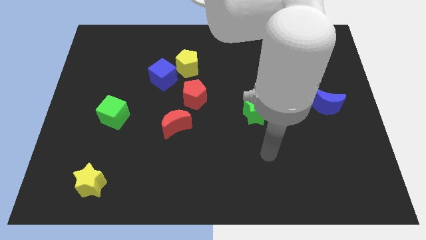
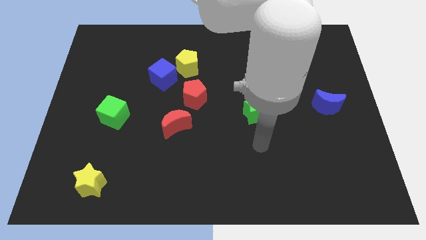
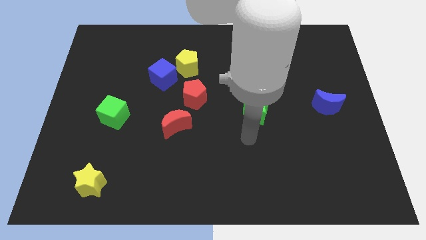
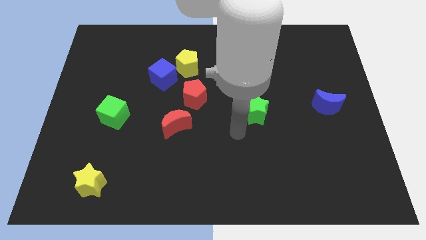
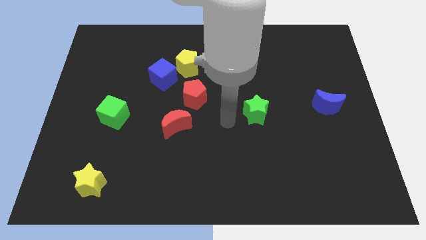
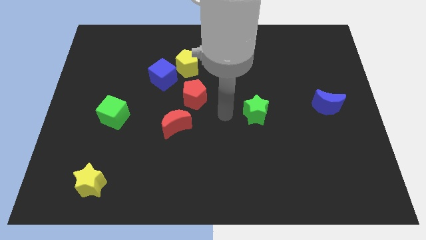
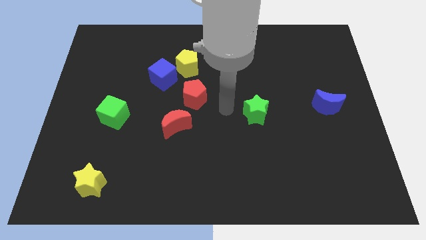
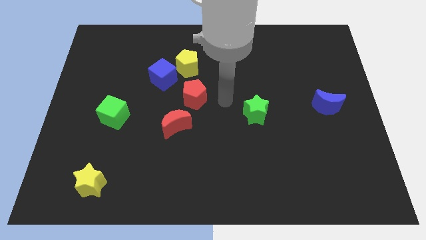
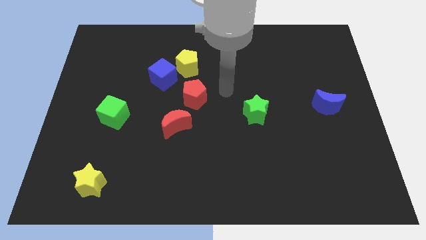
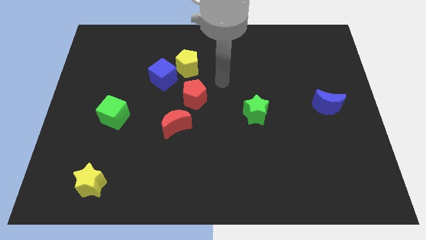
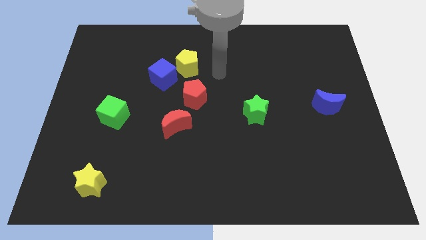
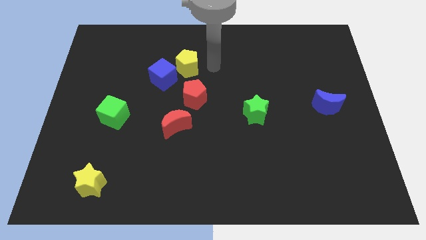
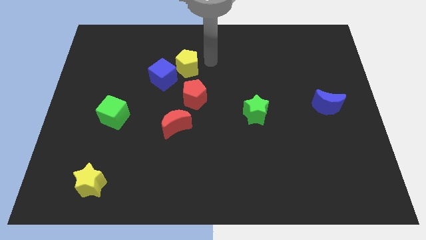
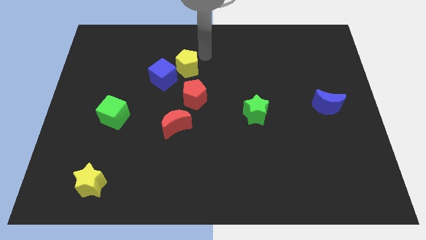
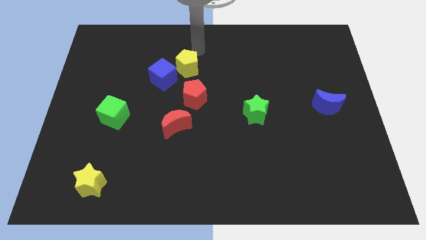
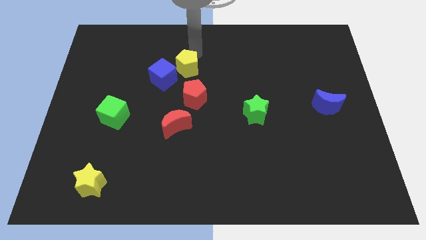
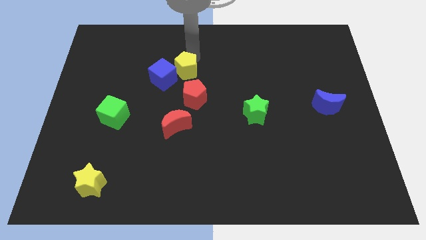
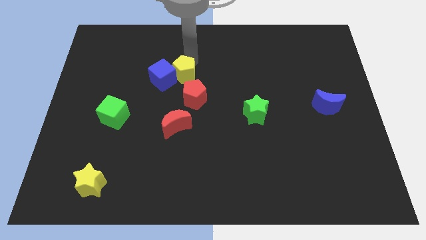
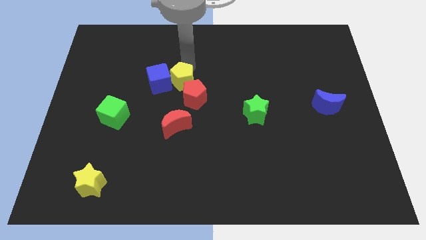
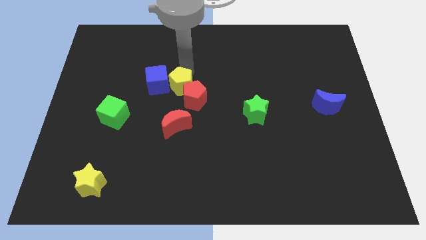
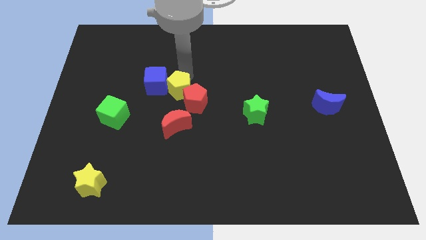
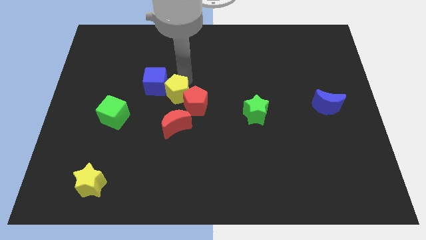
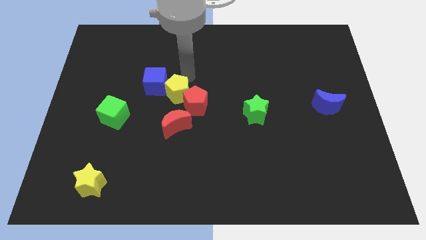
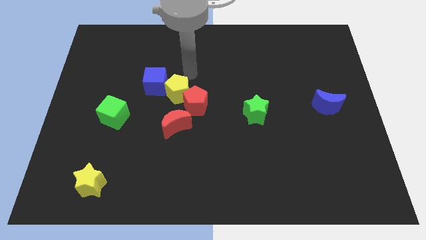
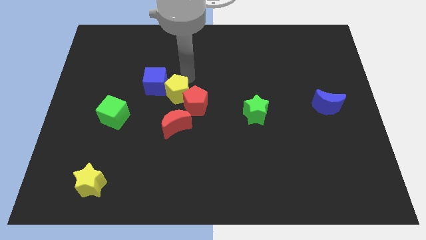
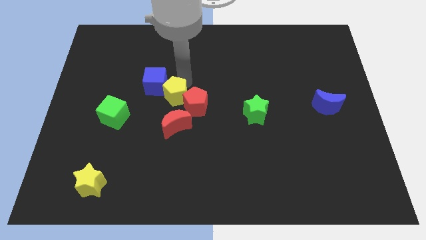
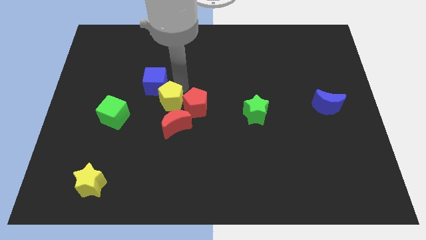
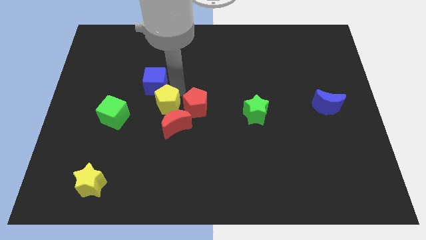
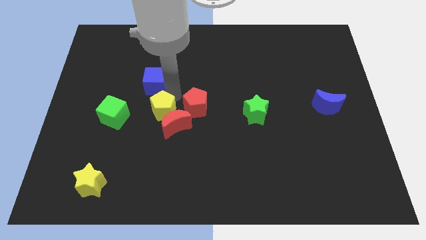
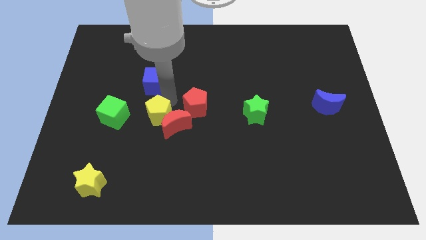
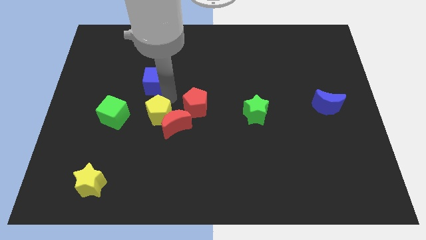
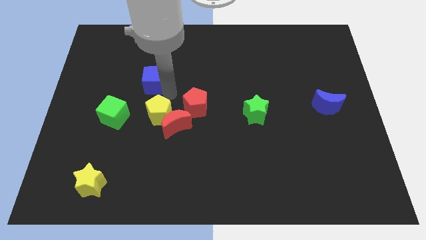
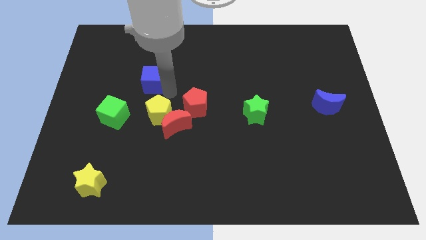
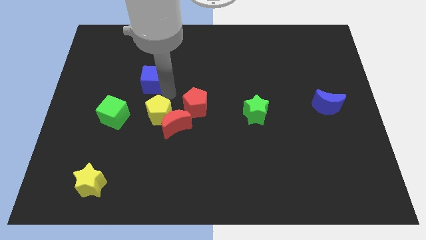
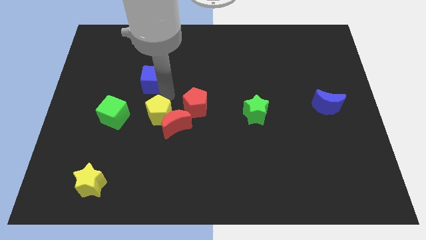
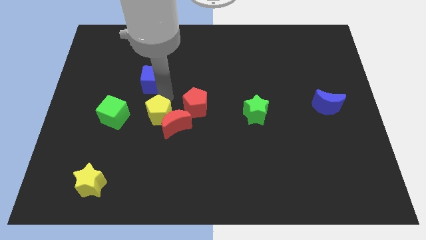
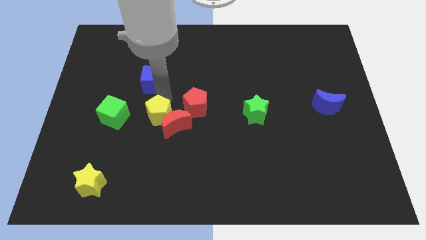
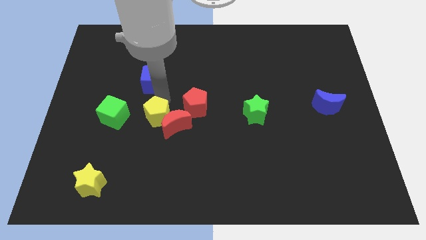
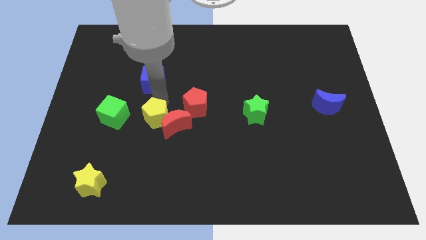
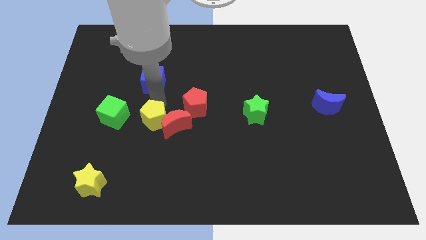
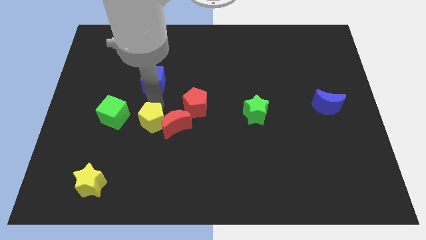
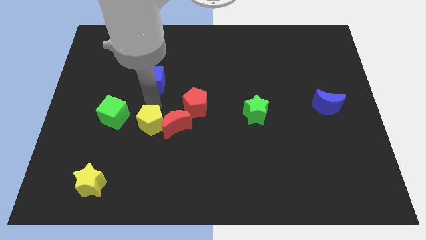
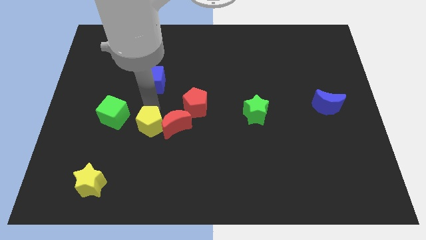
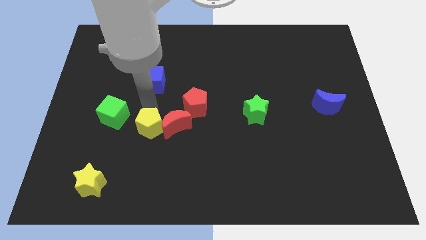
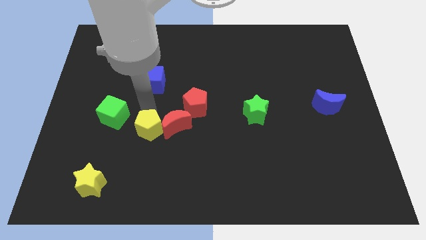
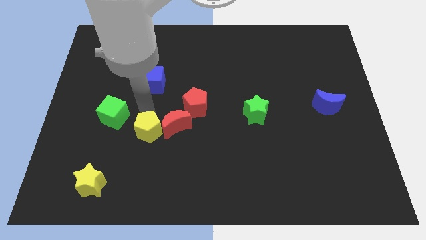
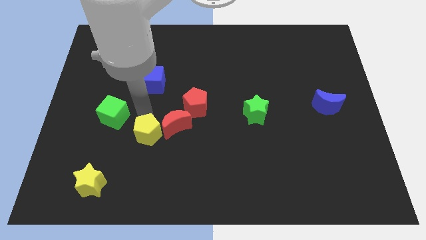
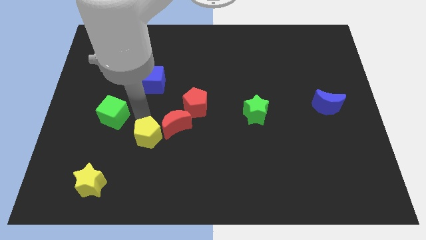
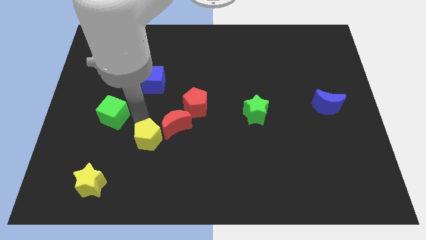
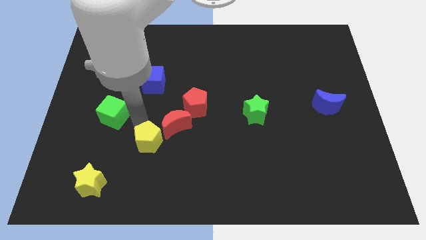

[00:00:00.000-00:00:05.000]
move the yellow pentagon down

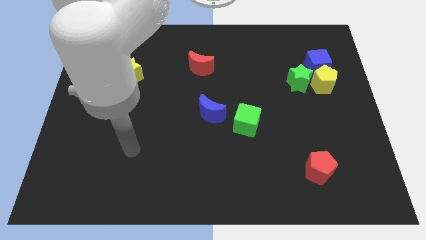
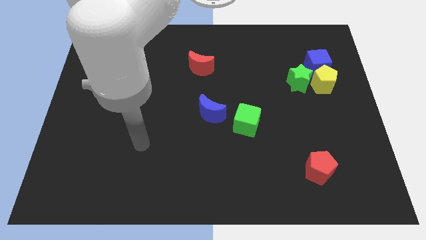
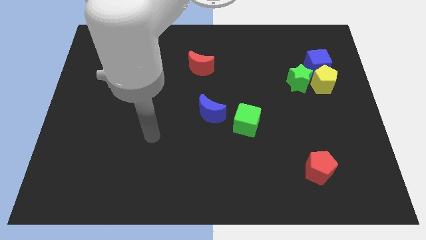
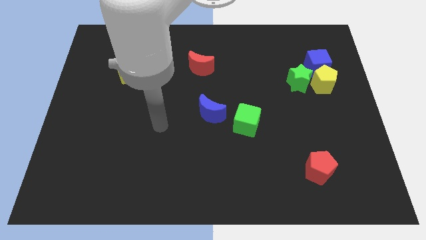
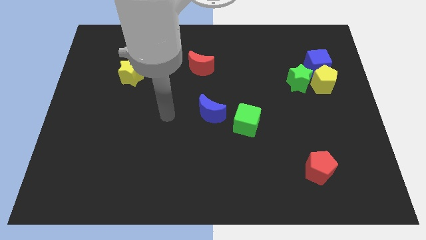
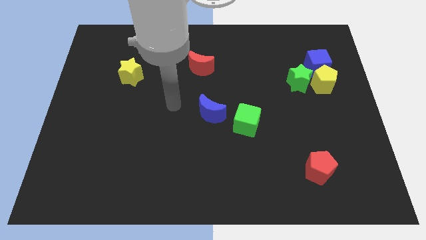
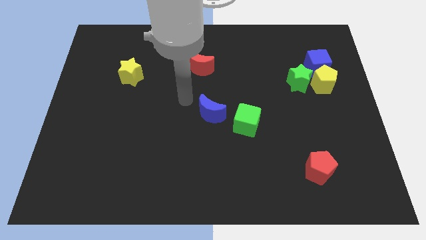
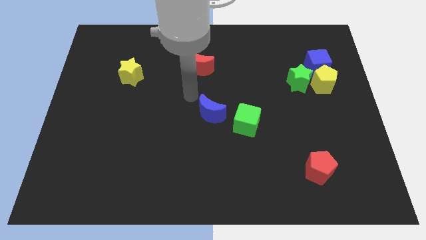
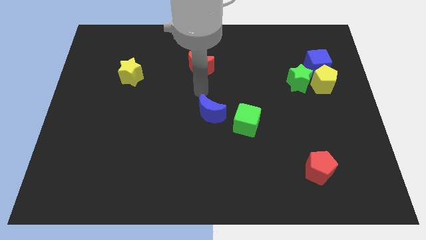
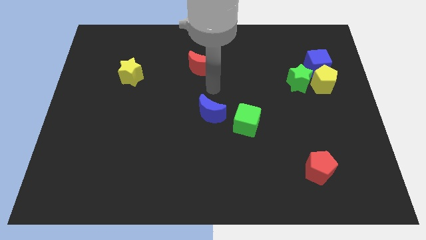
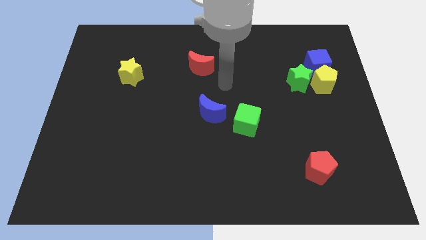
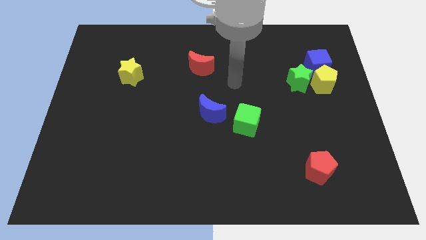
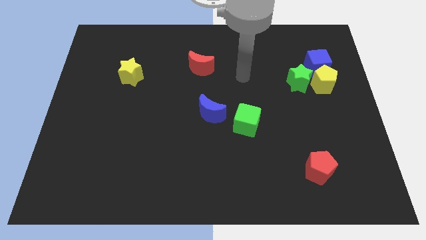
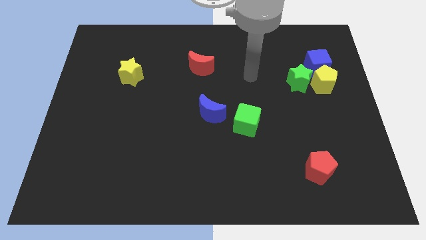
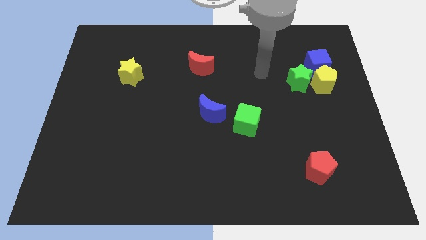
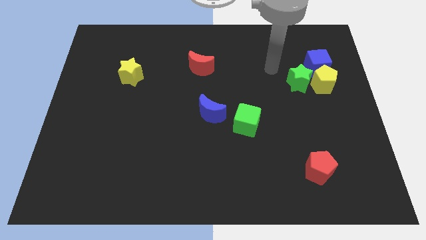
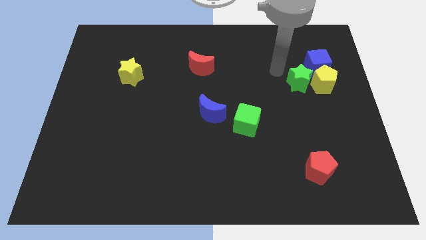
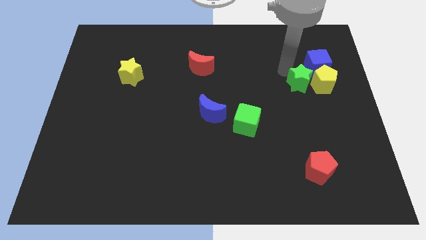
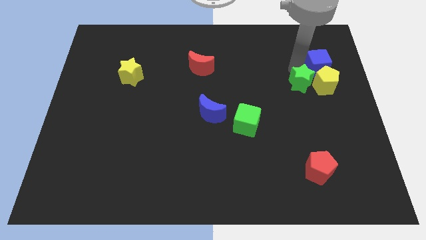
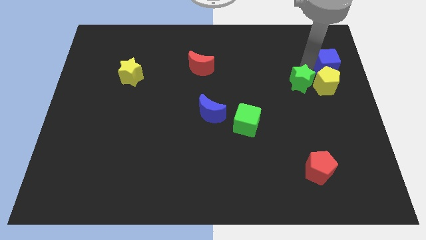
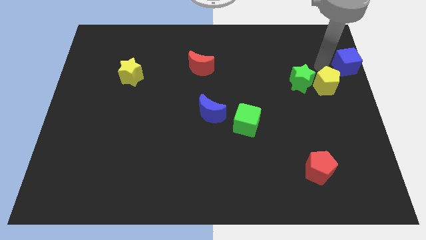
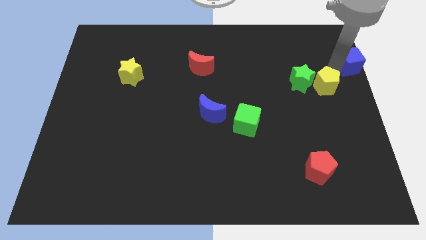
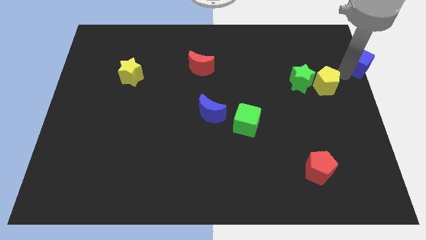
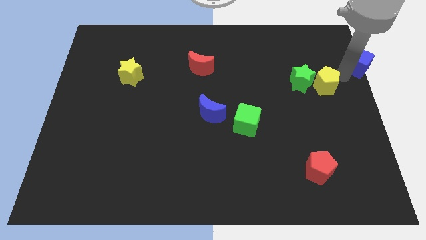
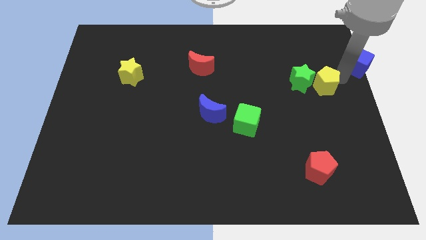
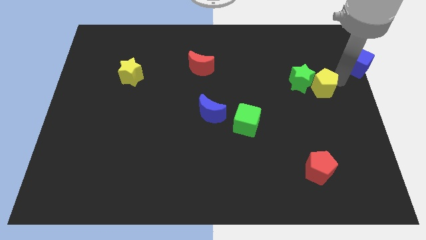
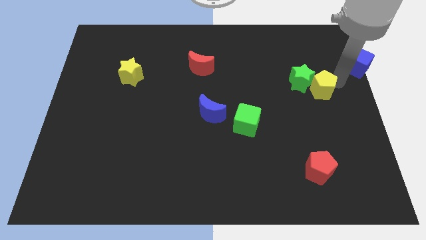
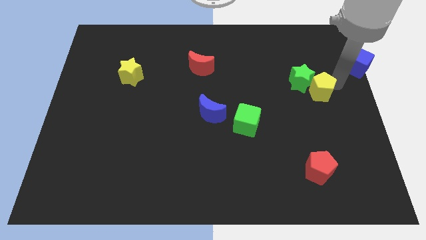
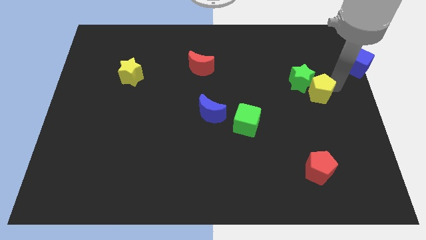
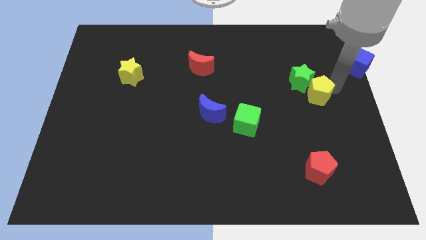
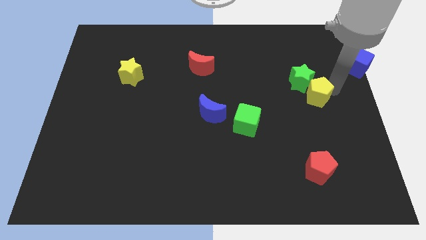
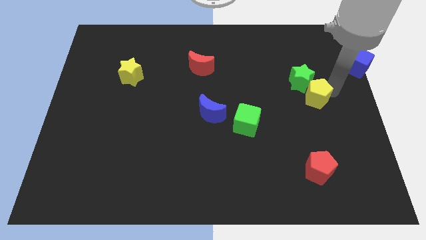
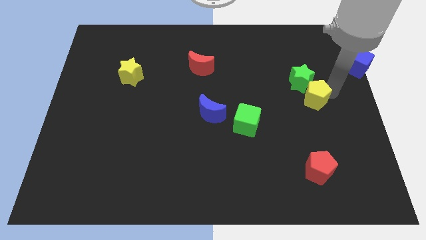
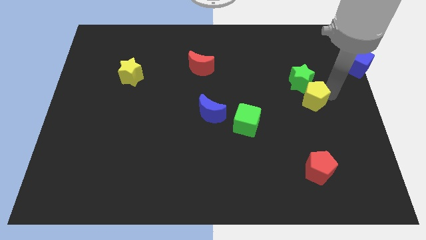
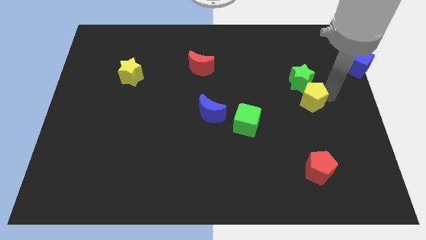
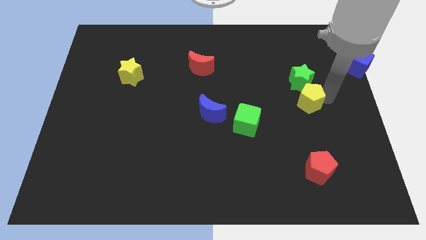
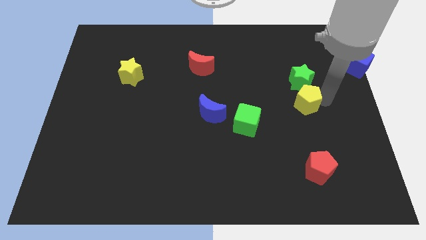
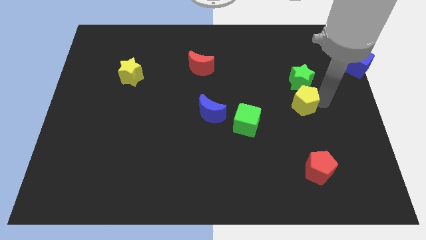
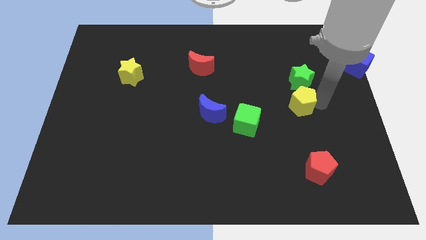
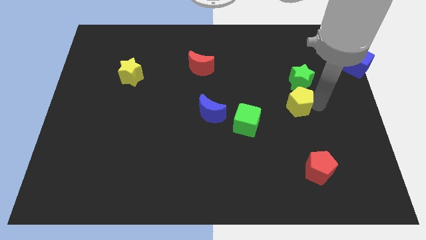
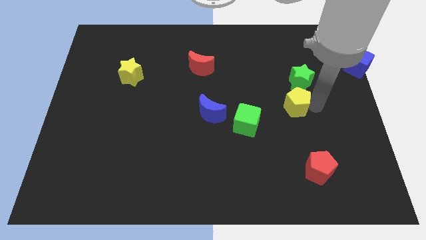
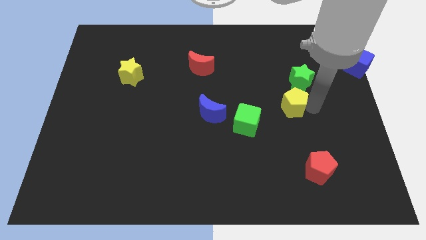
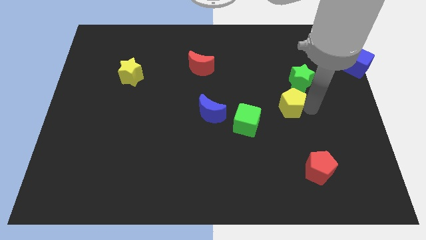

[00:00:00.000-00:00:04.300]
slide the yellow pentagon somewhat to the left
